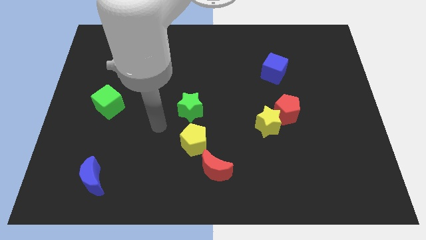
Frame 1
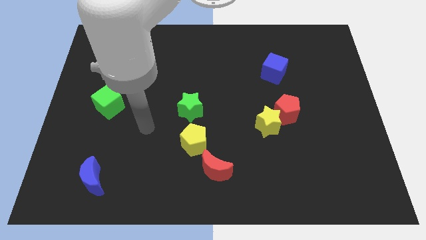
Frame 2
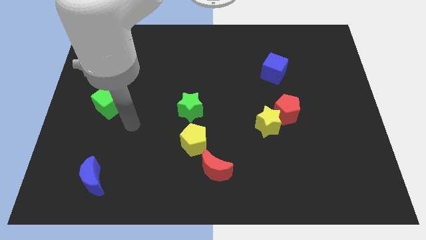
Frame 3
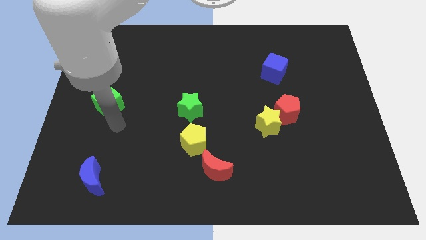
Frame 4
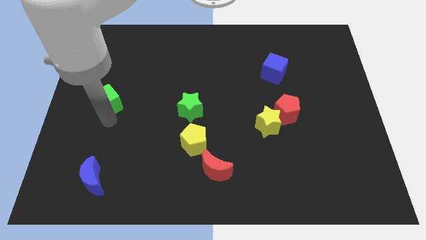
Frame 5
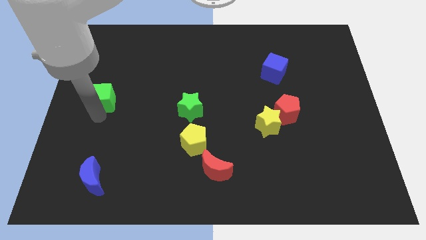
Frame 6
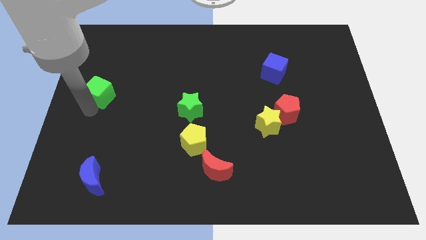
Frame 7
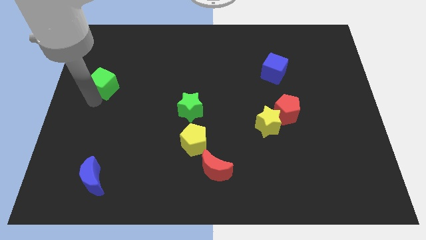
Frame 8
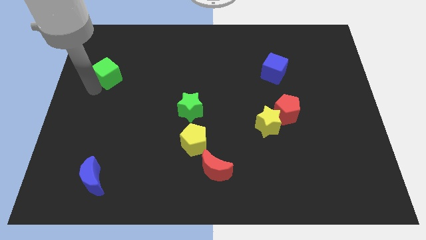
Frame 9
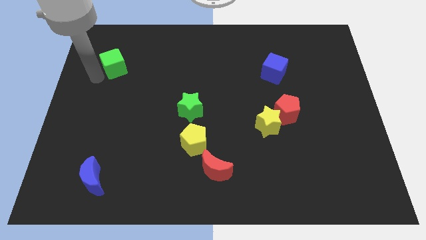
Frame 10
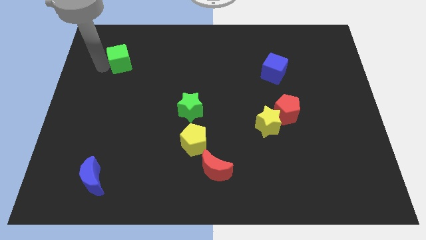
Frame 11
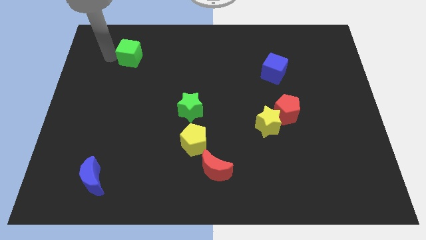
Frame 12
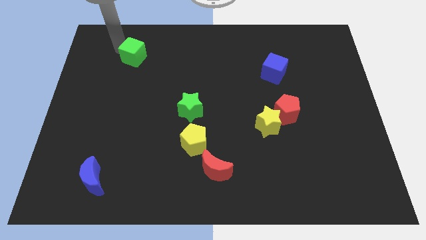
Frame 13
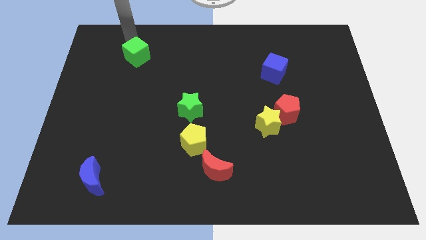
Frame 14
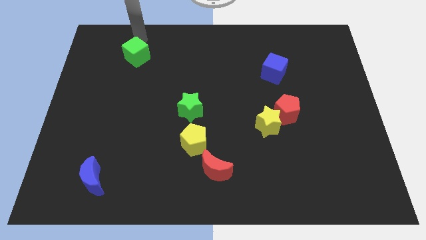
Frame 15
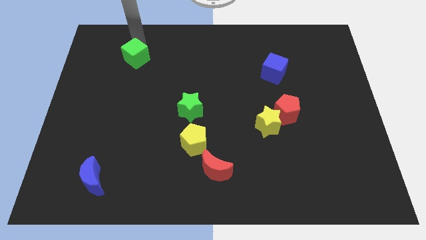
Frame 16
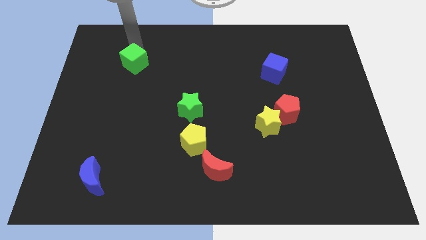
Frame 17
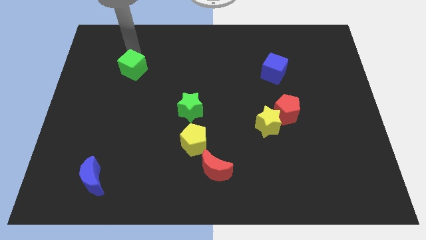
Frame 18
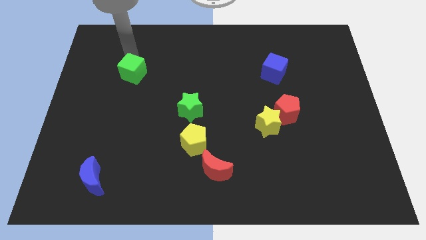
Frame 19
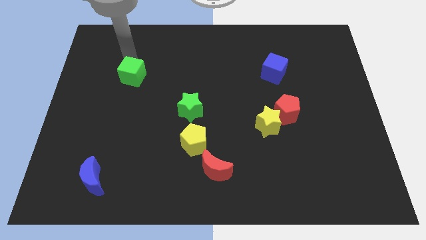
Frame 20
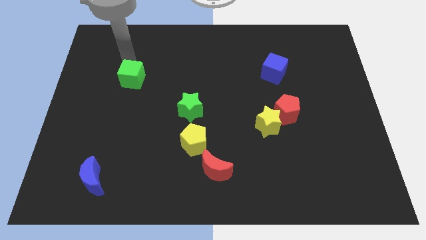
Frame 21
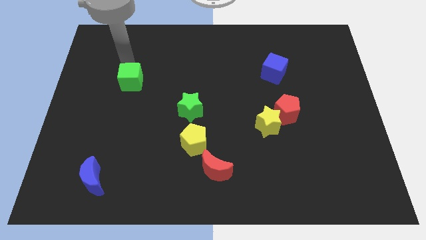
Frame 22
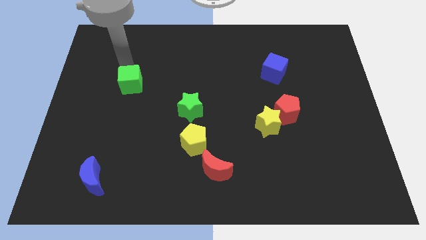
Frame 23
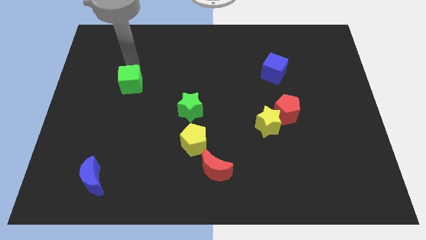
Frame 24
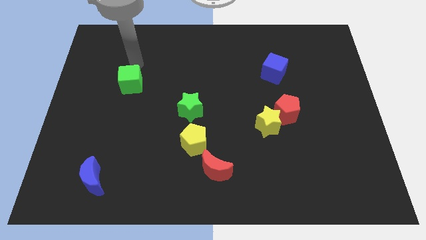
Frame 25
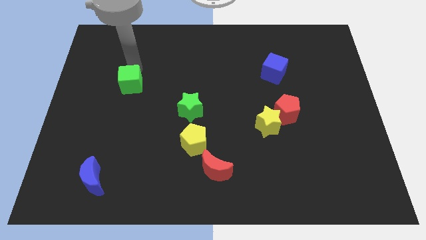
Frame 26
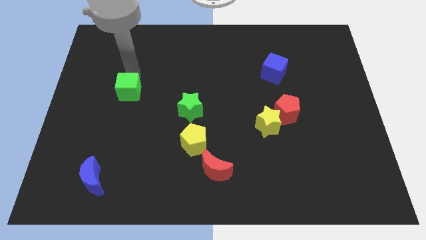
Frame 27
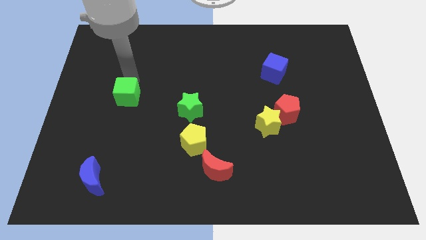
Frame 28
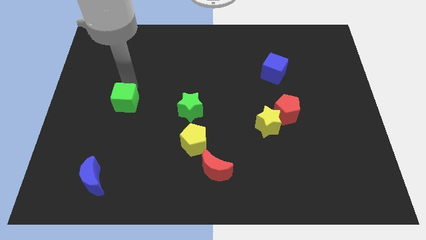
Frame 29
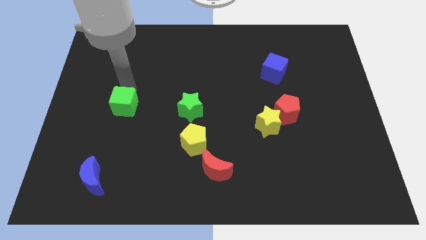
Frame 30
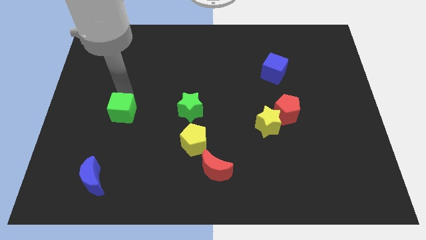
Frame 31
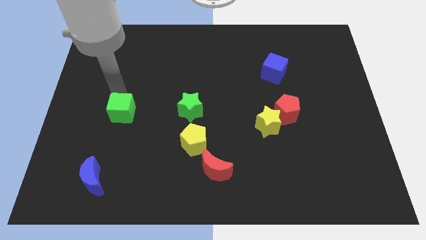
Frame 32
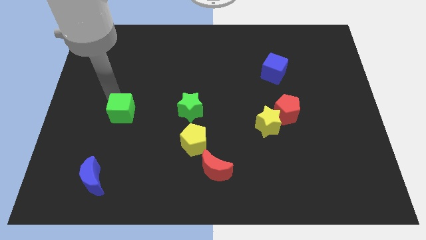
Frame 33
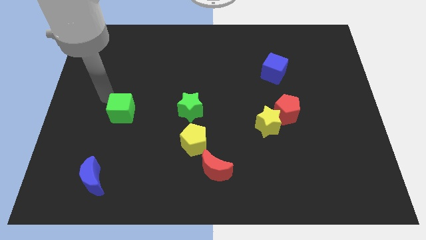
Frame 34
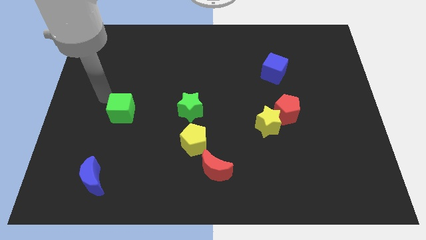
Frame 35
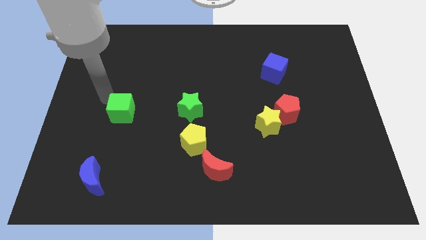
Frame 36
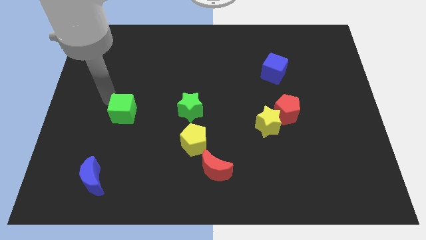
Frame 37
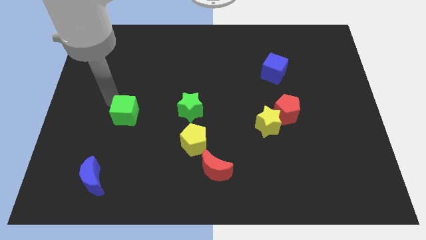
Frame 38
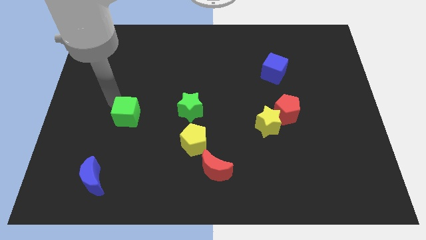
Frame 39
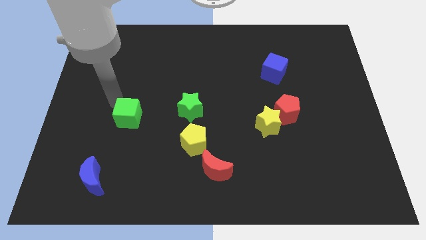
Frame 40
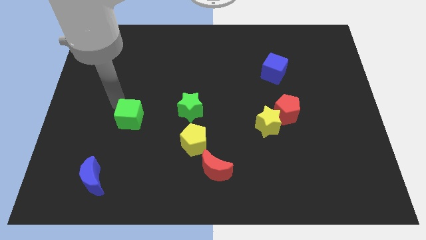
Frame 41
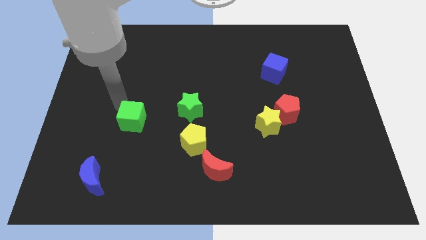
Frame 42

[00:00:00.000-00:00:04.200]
move the green cube down and to the right diagonally a little bit

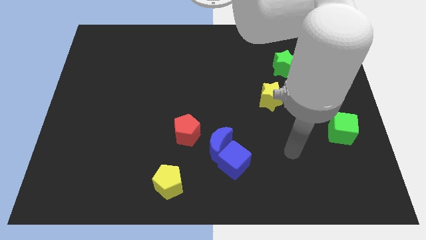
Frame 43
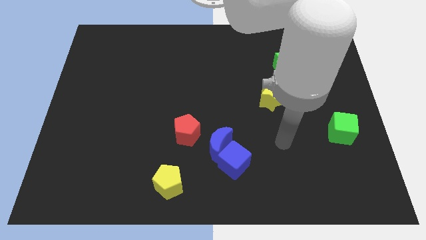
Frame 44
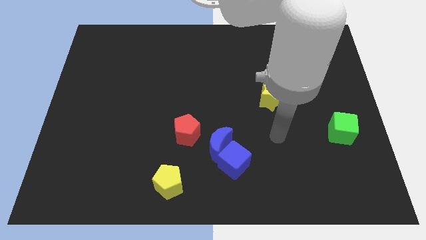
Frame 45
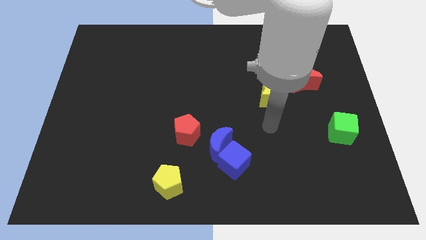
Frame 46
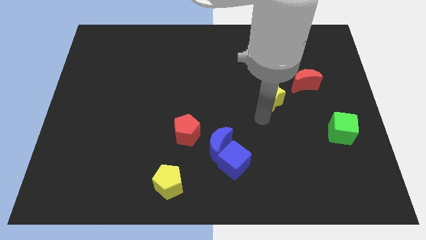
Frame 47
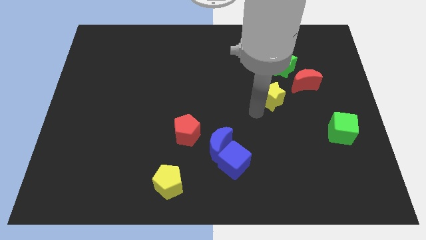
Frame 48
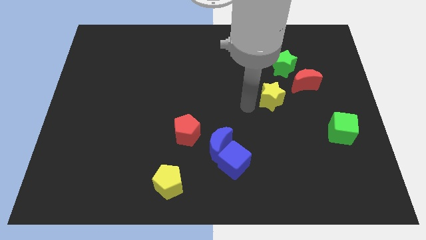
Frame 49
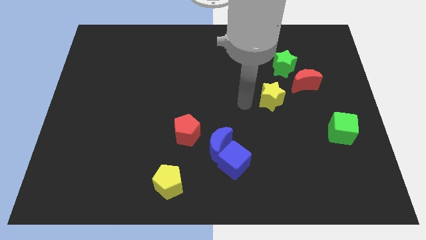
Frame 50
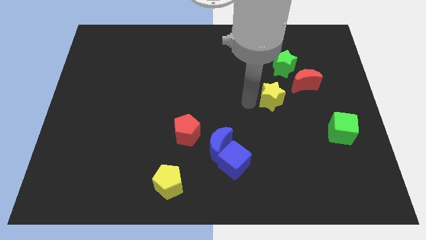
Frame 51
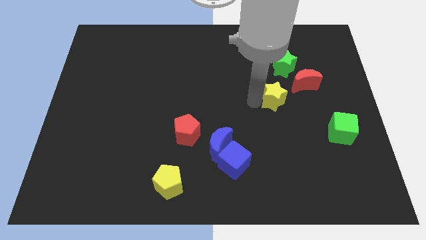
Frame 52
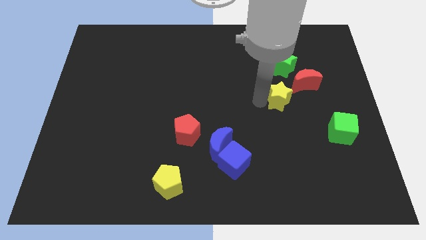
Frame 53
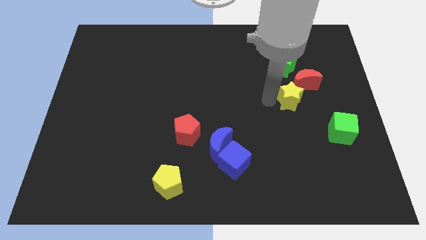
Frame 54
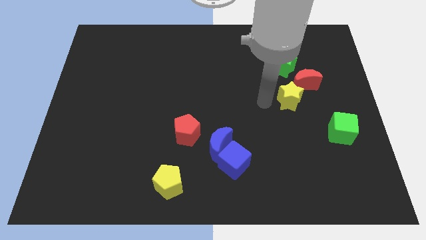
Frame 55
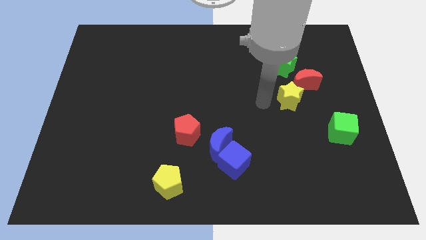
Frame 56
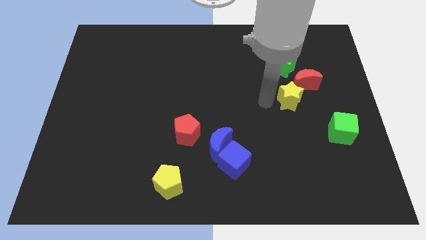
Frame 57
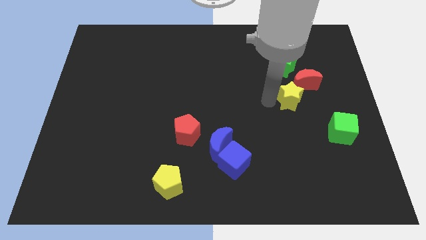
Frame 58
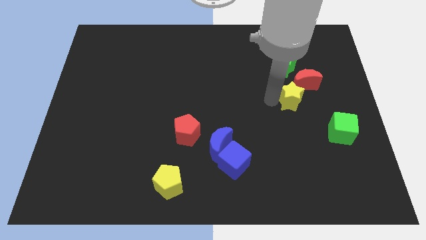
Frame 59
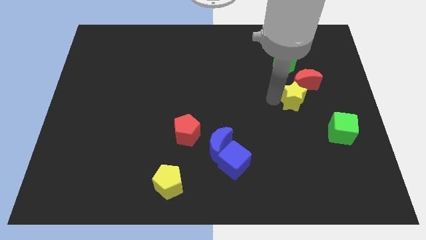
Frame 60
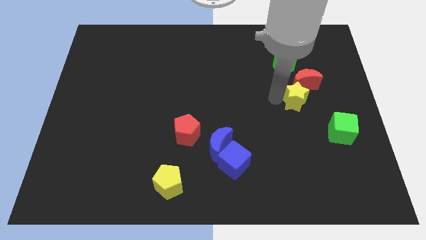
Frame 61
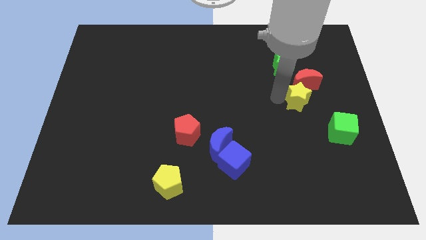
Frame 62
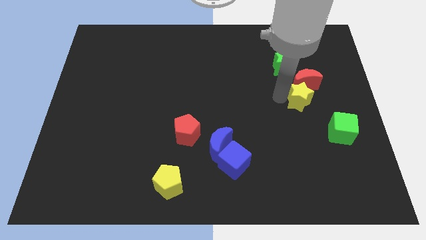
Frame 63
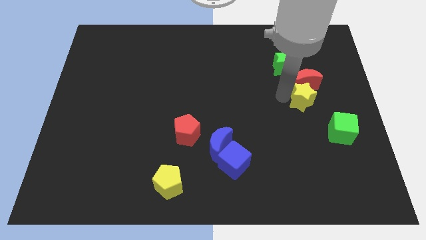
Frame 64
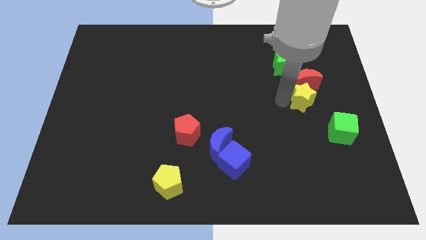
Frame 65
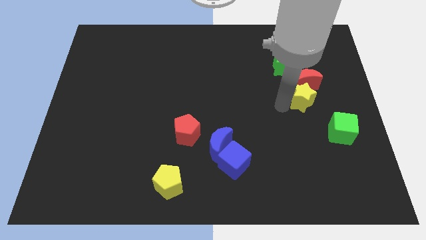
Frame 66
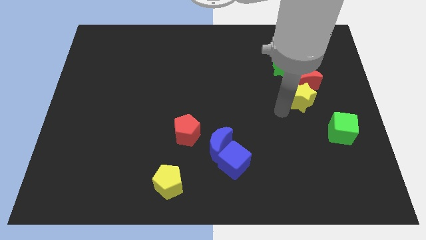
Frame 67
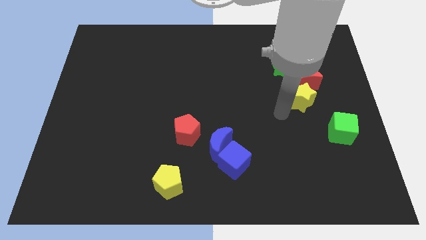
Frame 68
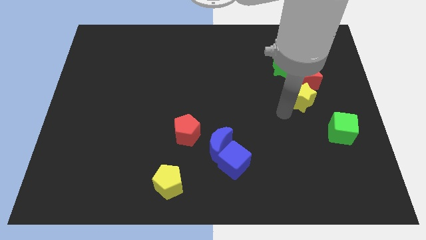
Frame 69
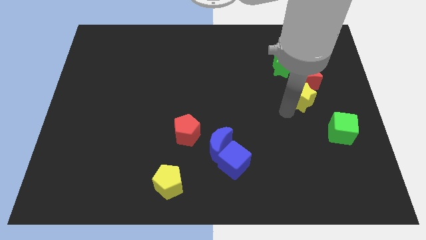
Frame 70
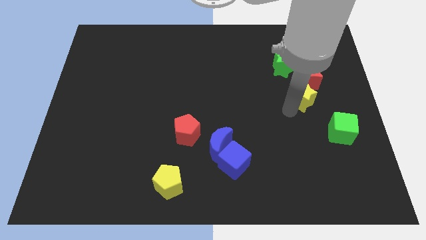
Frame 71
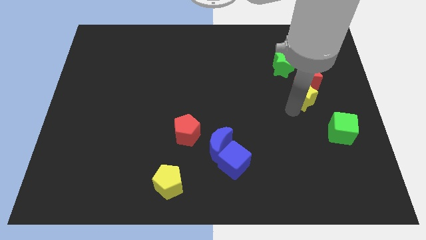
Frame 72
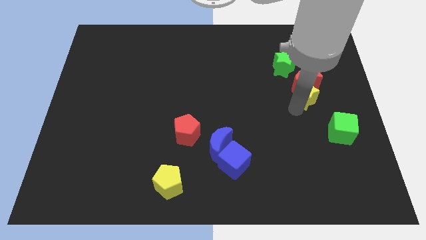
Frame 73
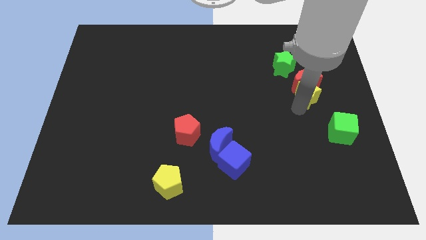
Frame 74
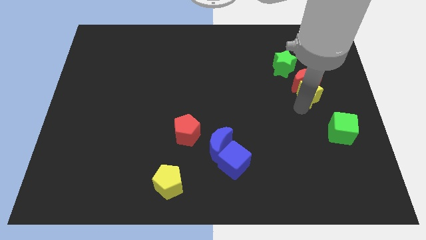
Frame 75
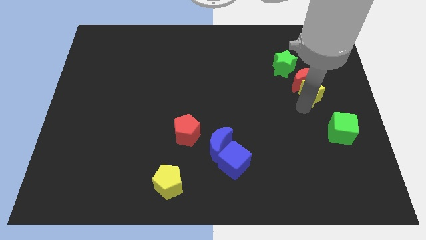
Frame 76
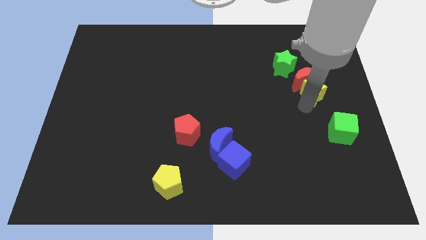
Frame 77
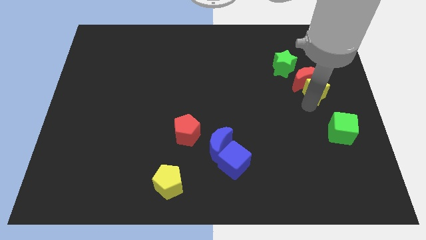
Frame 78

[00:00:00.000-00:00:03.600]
push the yellow star a bit up and then to the right

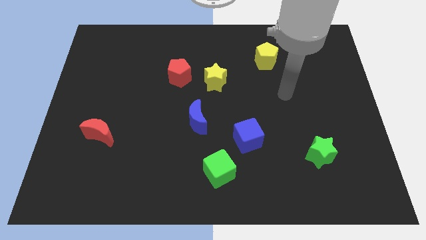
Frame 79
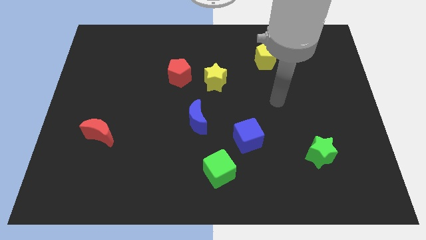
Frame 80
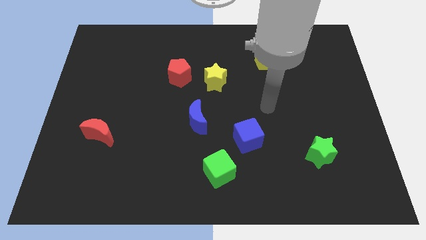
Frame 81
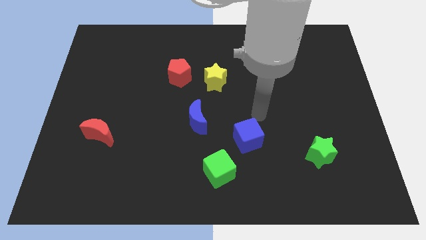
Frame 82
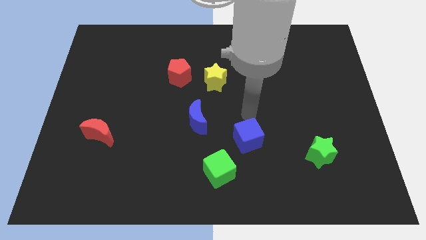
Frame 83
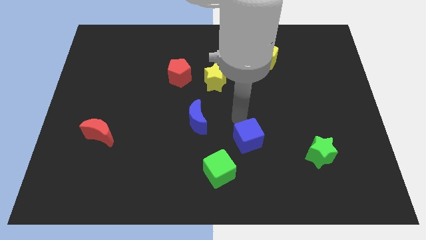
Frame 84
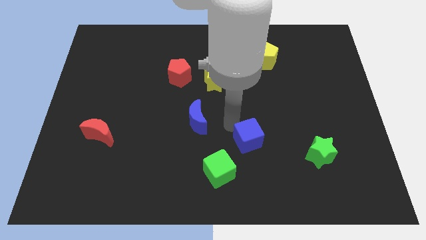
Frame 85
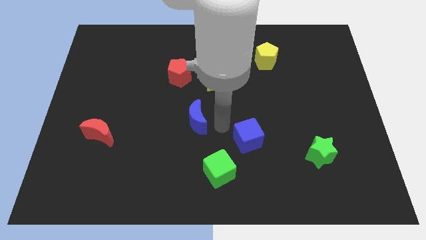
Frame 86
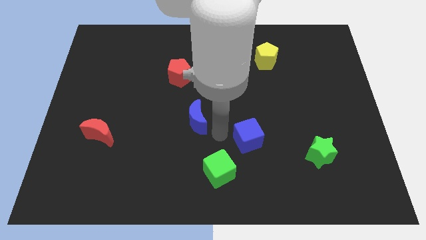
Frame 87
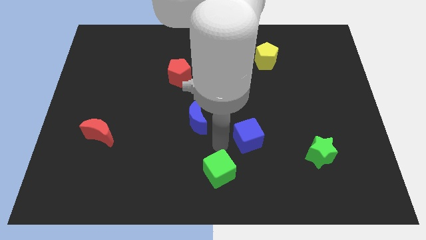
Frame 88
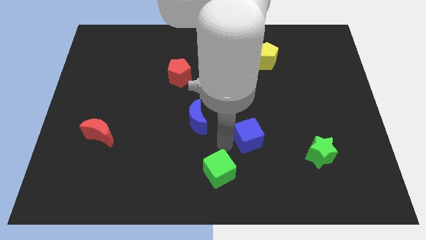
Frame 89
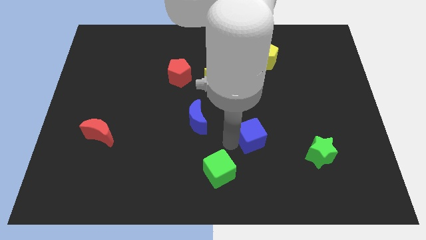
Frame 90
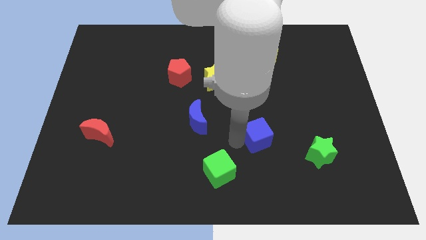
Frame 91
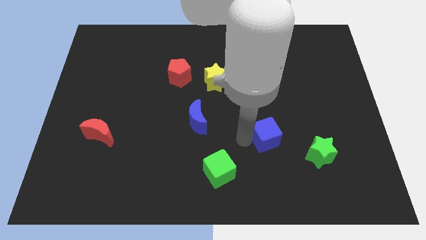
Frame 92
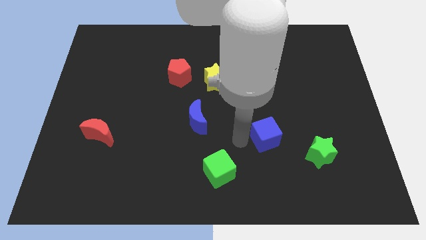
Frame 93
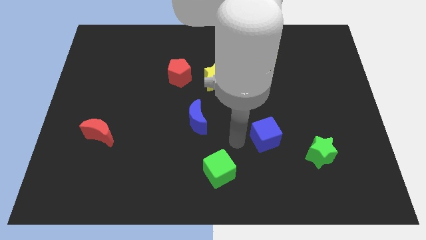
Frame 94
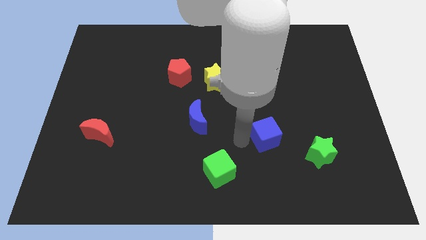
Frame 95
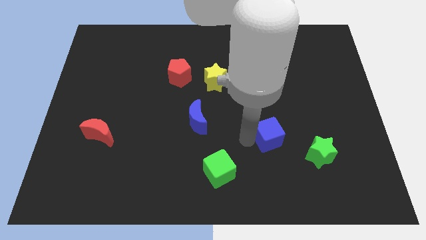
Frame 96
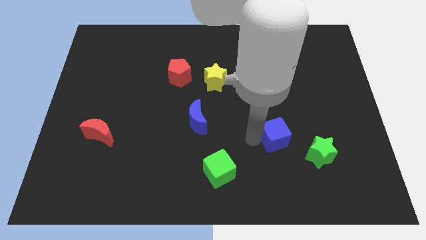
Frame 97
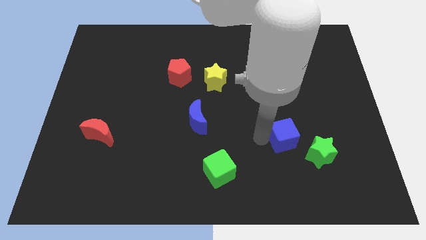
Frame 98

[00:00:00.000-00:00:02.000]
slightly push the blue cube right
